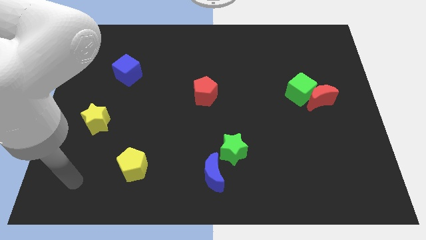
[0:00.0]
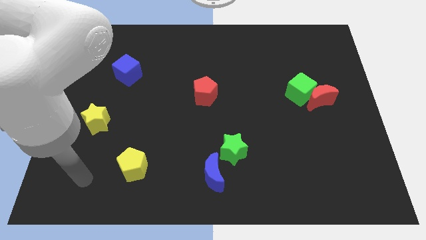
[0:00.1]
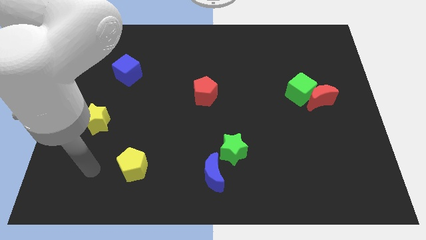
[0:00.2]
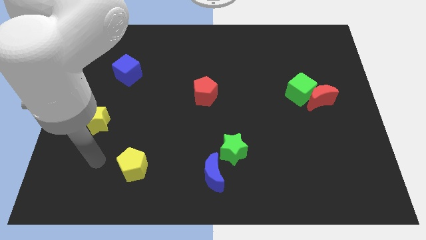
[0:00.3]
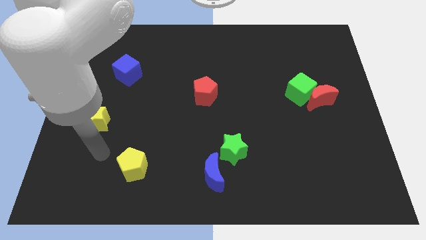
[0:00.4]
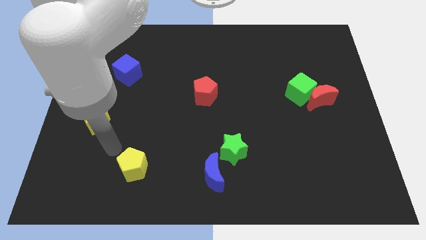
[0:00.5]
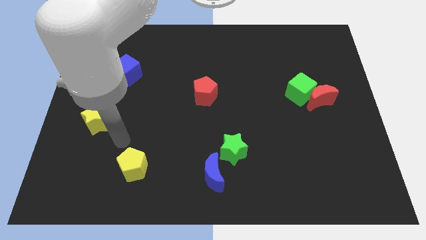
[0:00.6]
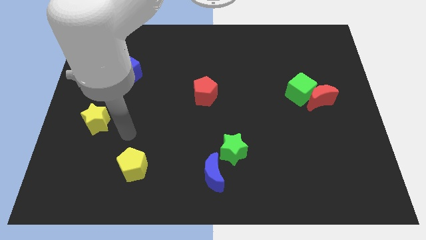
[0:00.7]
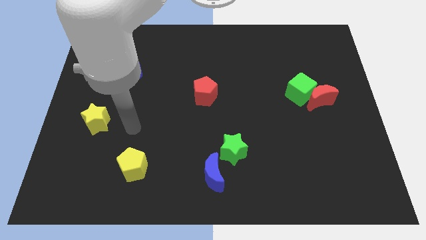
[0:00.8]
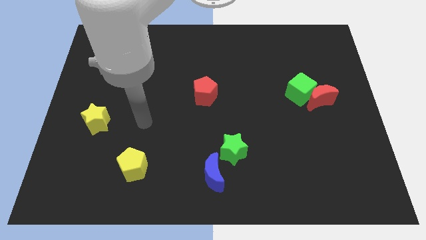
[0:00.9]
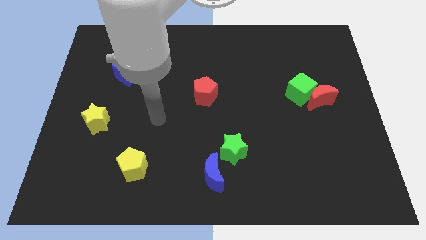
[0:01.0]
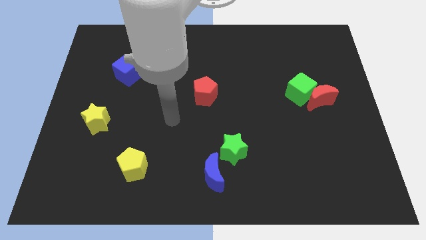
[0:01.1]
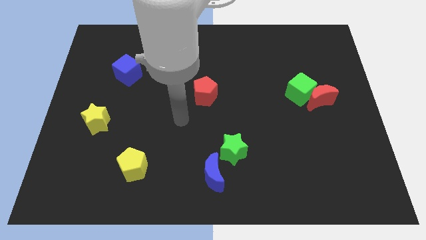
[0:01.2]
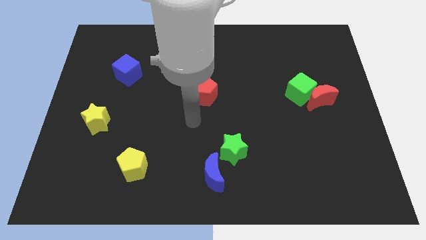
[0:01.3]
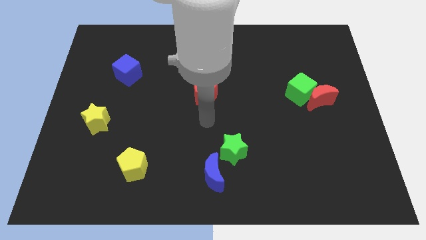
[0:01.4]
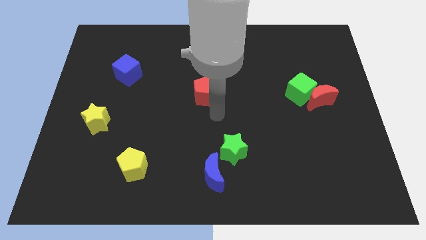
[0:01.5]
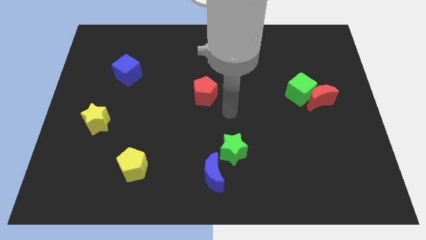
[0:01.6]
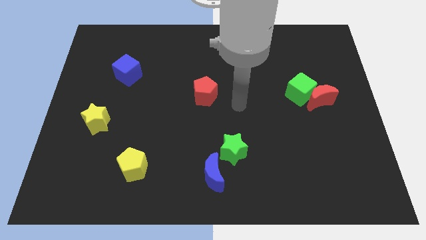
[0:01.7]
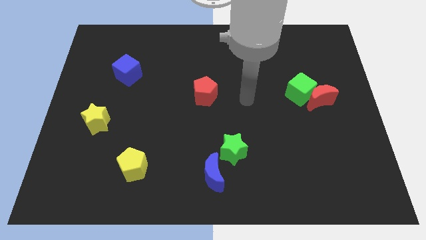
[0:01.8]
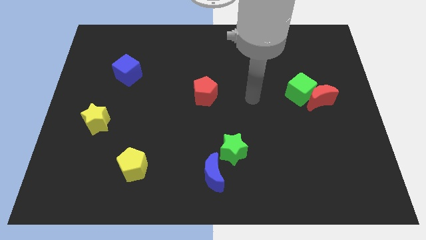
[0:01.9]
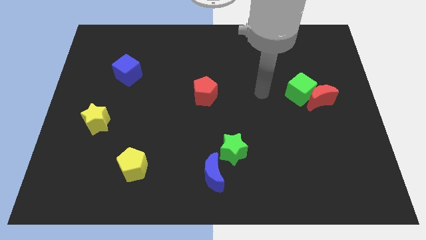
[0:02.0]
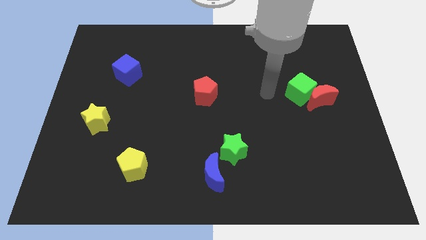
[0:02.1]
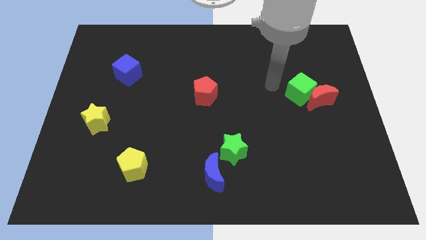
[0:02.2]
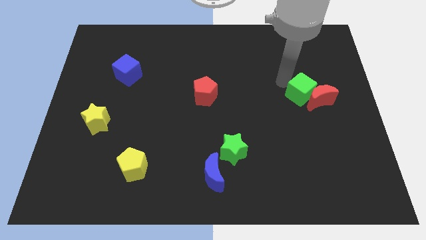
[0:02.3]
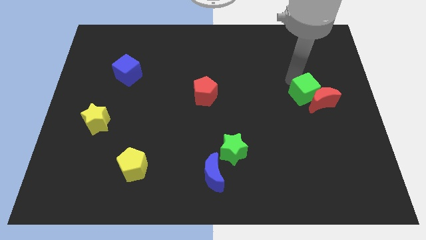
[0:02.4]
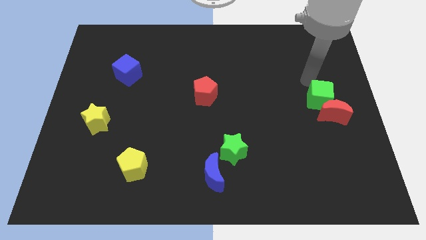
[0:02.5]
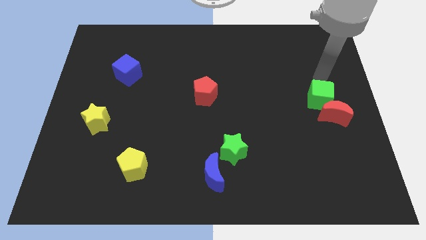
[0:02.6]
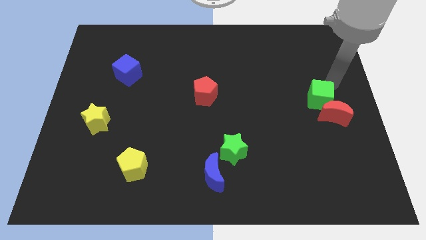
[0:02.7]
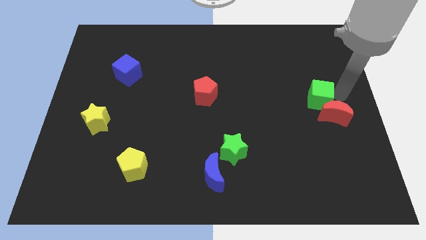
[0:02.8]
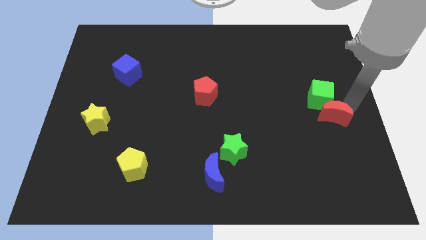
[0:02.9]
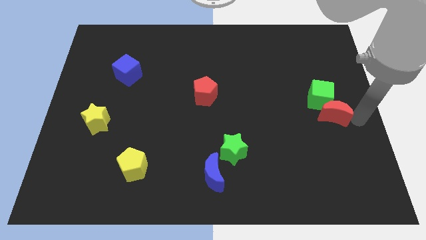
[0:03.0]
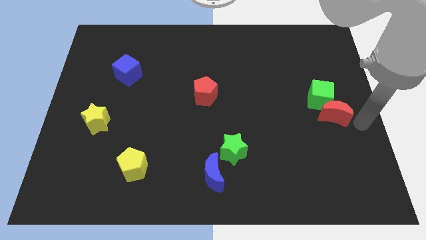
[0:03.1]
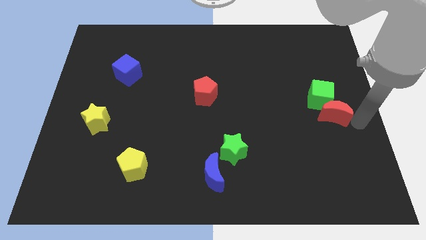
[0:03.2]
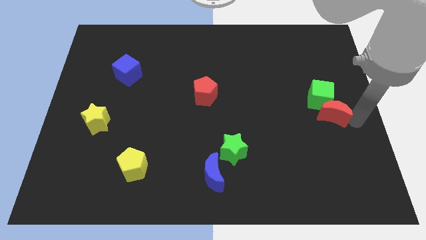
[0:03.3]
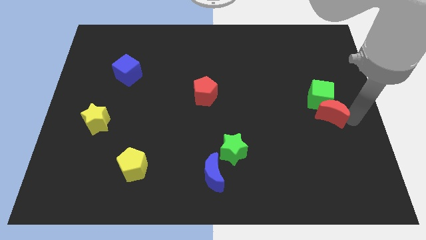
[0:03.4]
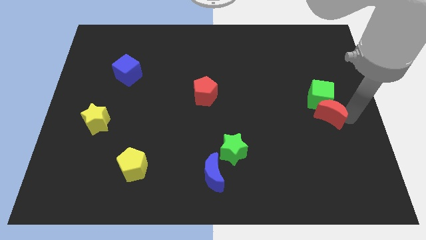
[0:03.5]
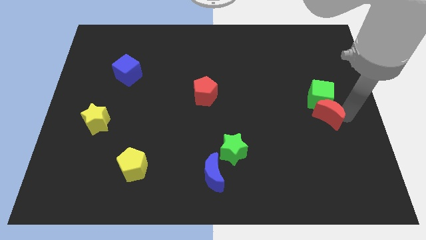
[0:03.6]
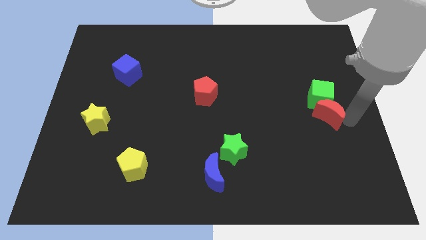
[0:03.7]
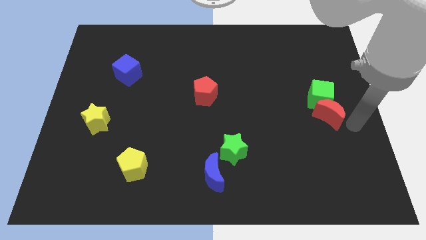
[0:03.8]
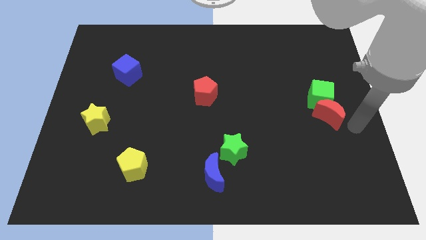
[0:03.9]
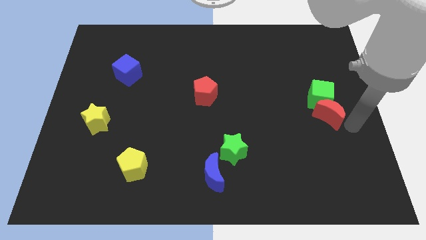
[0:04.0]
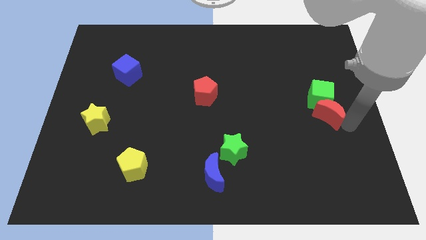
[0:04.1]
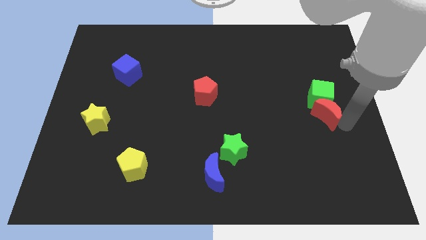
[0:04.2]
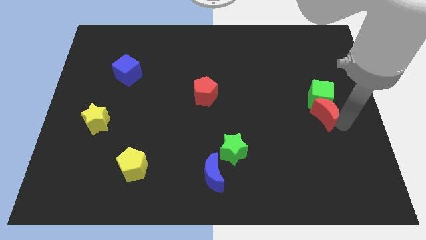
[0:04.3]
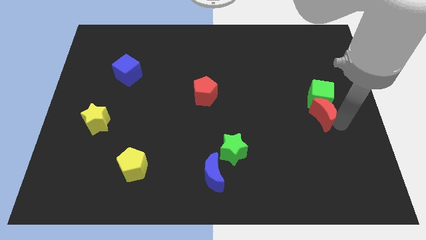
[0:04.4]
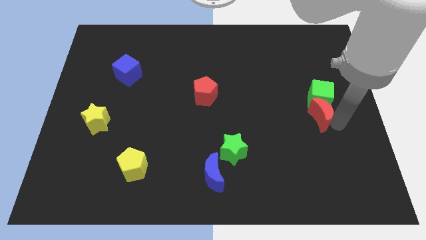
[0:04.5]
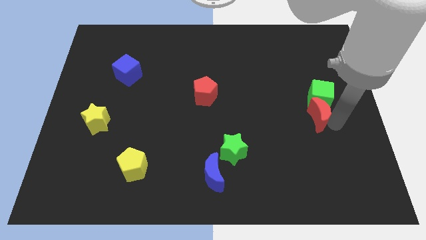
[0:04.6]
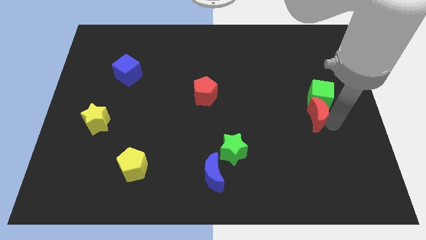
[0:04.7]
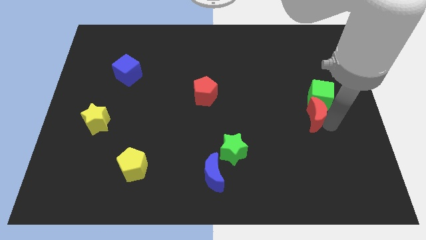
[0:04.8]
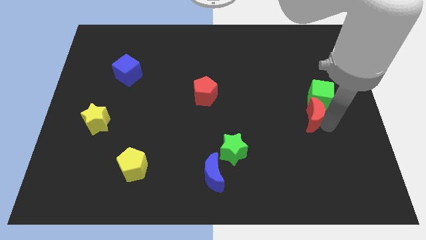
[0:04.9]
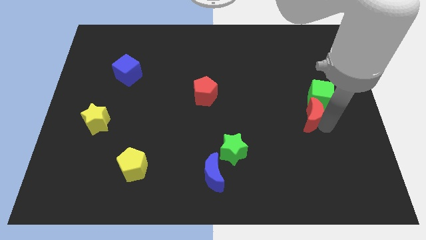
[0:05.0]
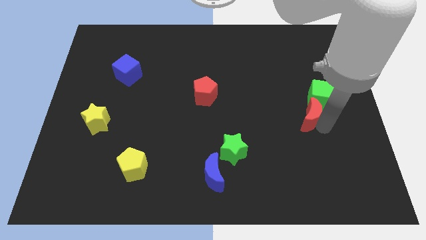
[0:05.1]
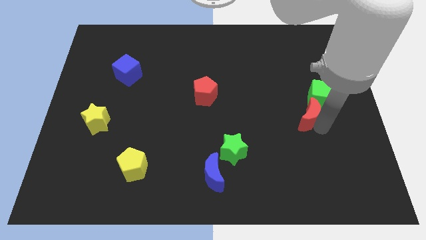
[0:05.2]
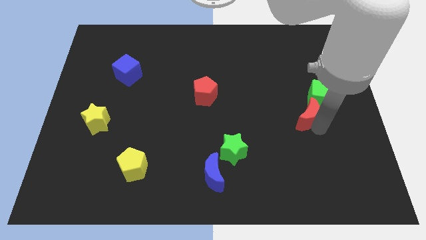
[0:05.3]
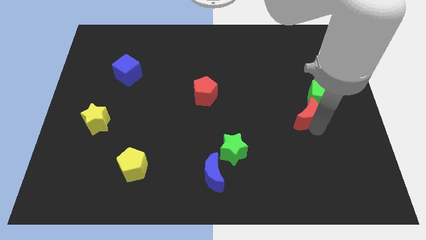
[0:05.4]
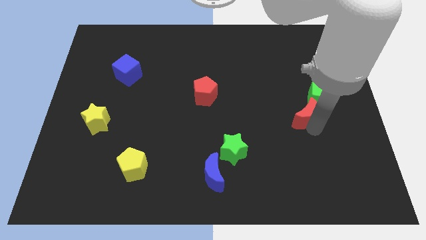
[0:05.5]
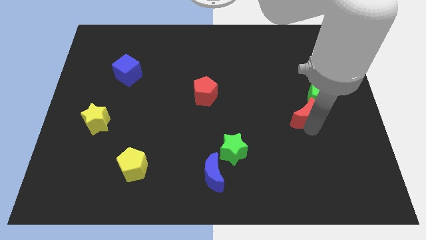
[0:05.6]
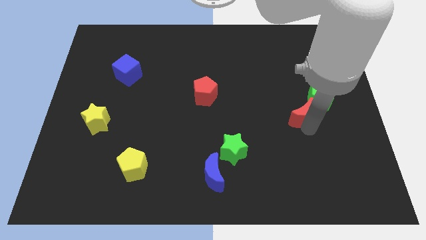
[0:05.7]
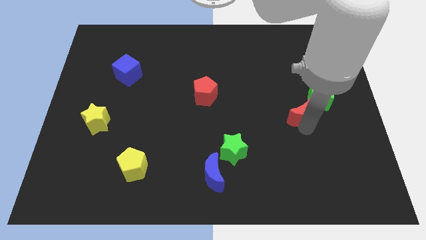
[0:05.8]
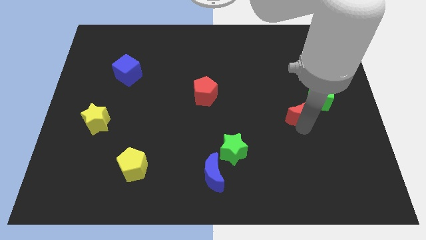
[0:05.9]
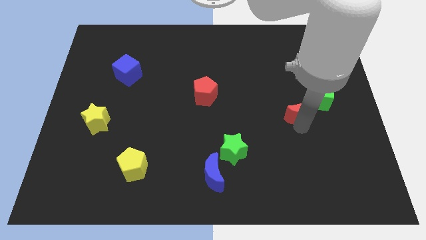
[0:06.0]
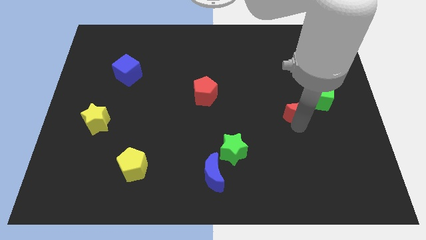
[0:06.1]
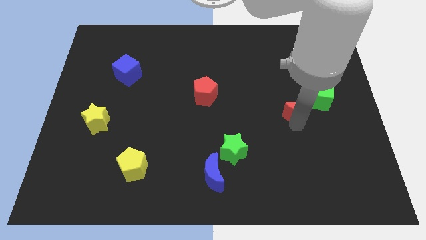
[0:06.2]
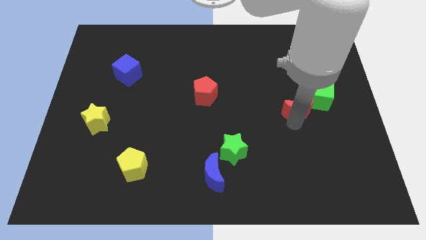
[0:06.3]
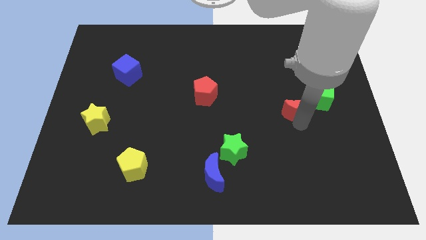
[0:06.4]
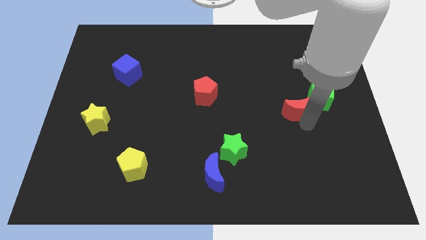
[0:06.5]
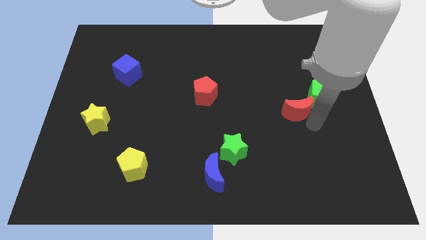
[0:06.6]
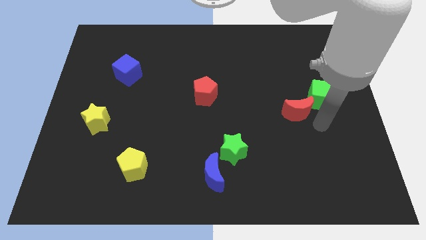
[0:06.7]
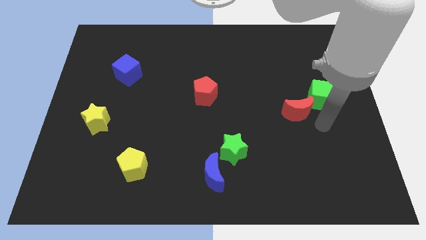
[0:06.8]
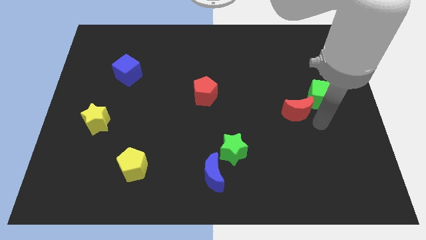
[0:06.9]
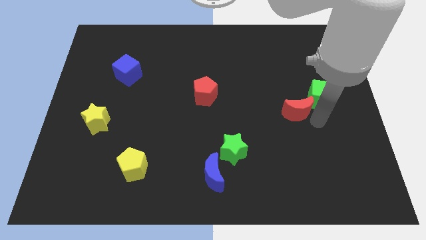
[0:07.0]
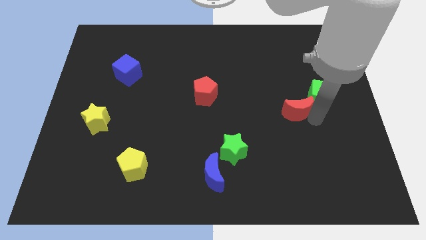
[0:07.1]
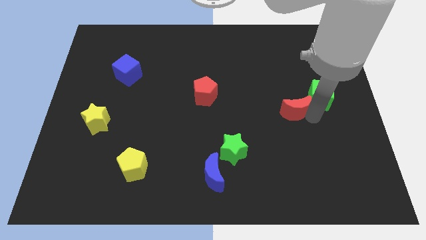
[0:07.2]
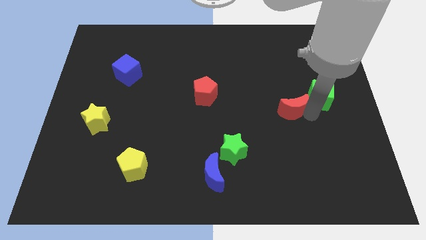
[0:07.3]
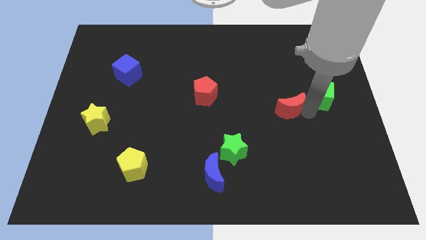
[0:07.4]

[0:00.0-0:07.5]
slightly slide the red moon to the left

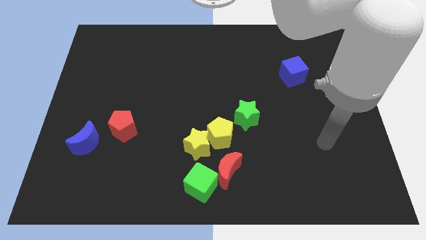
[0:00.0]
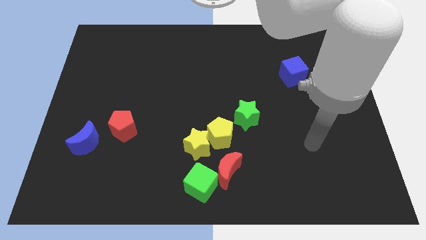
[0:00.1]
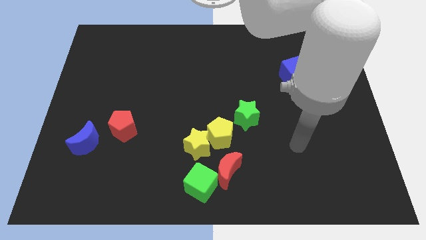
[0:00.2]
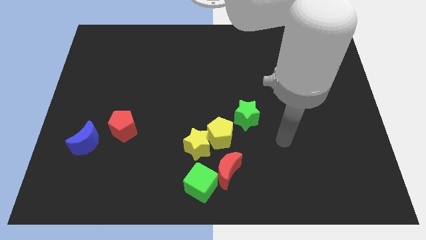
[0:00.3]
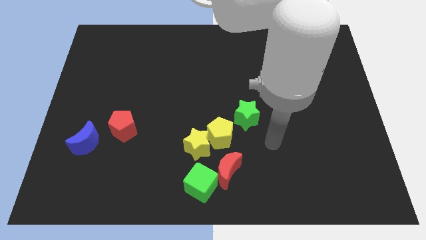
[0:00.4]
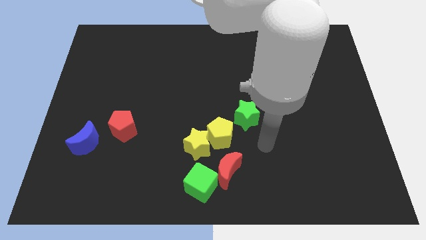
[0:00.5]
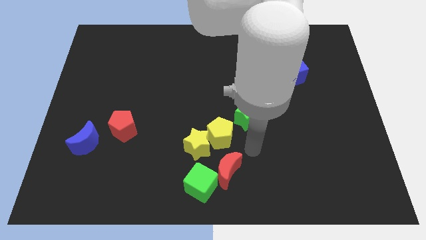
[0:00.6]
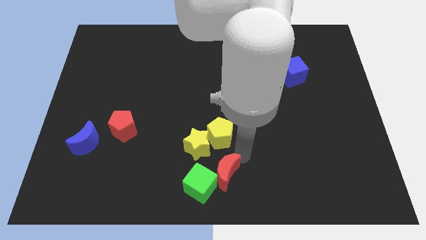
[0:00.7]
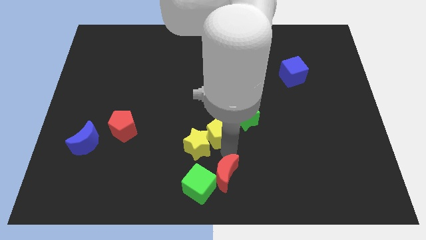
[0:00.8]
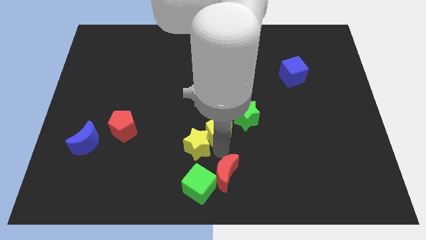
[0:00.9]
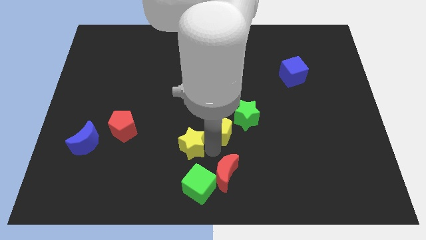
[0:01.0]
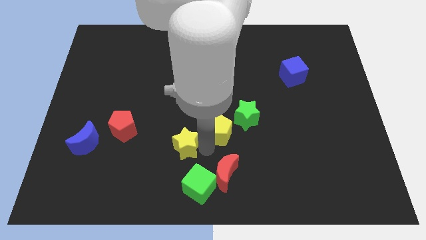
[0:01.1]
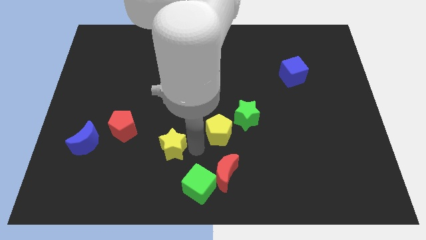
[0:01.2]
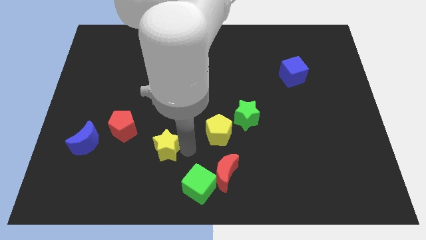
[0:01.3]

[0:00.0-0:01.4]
slide the yellow star left a little bit
